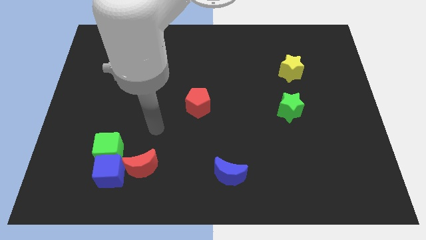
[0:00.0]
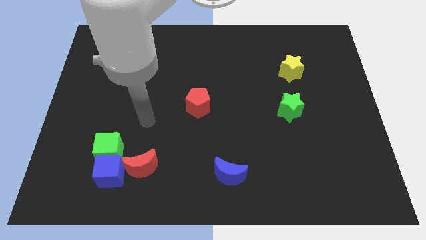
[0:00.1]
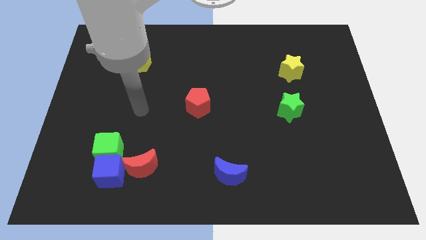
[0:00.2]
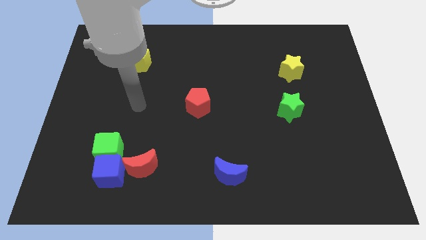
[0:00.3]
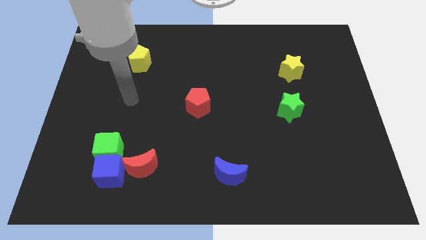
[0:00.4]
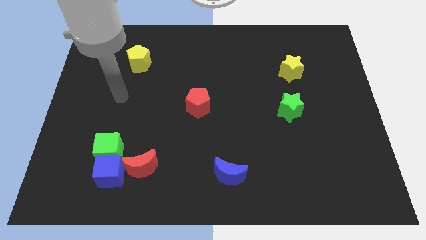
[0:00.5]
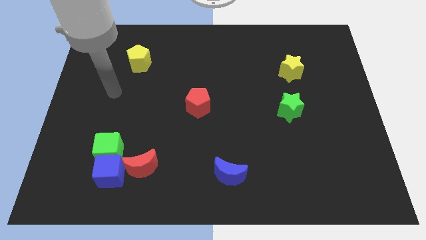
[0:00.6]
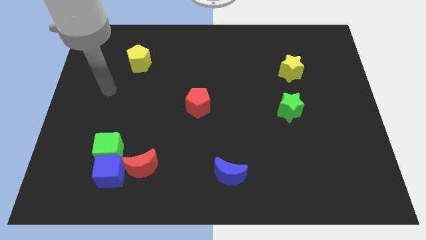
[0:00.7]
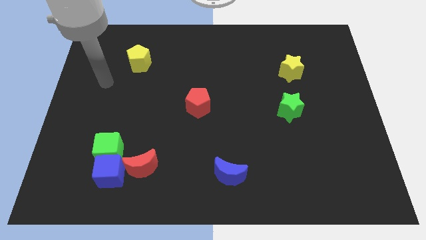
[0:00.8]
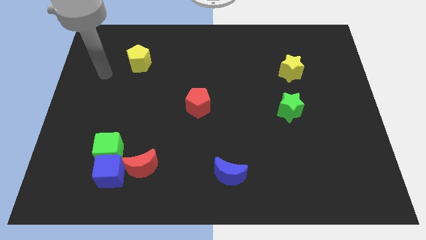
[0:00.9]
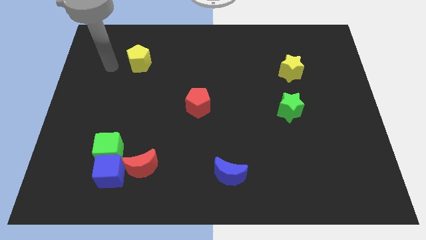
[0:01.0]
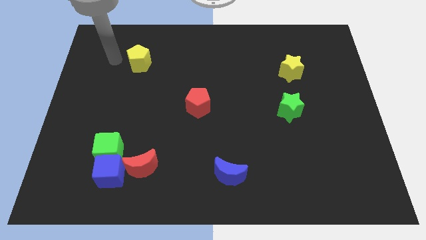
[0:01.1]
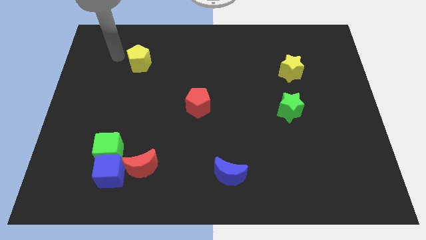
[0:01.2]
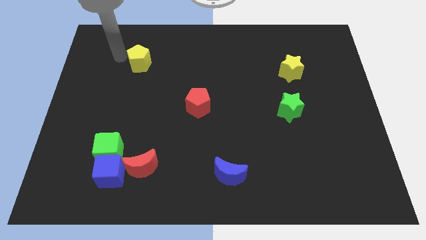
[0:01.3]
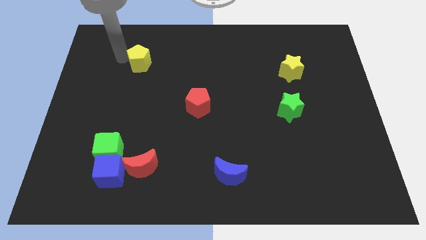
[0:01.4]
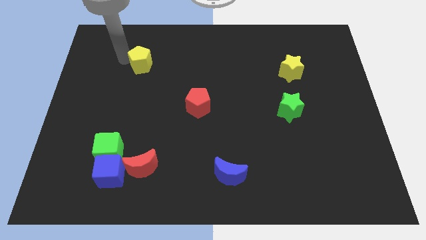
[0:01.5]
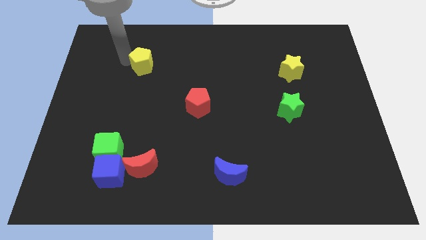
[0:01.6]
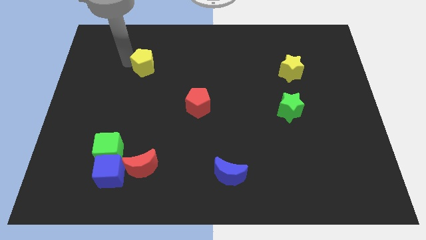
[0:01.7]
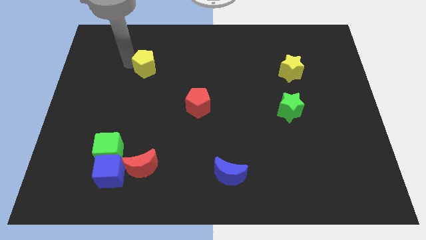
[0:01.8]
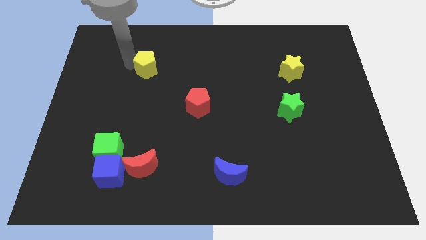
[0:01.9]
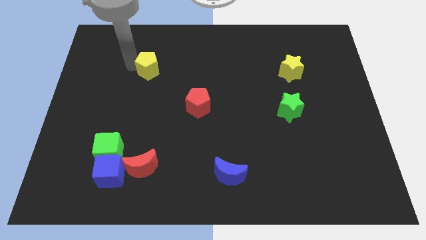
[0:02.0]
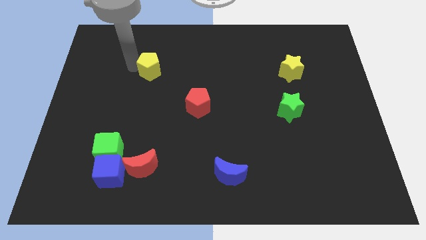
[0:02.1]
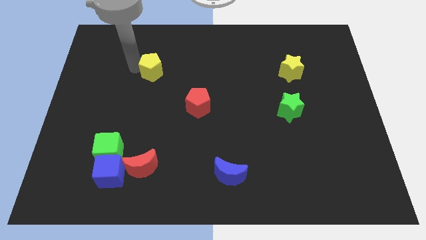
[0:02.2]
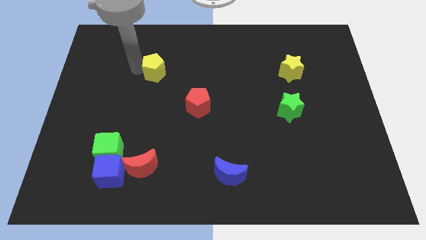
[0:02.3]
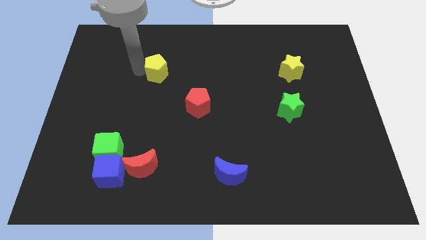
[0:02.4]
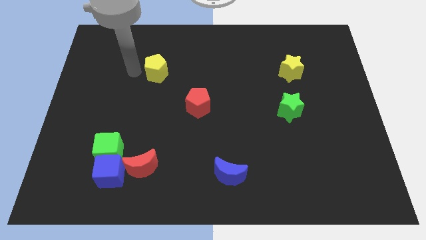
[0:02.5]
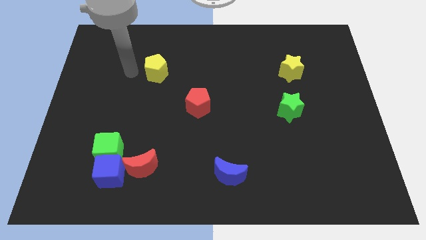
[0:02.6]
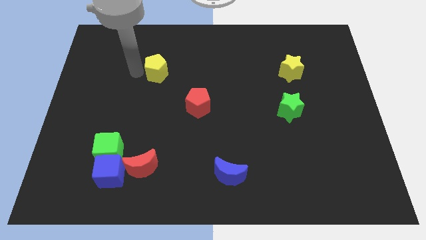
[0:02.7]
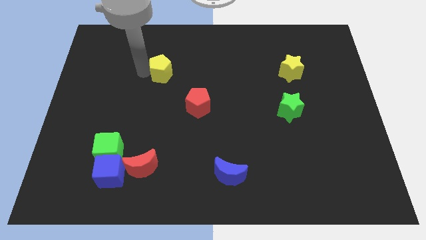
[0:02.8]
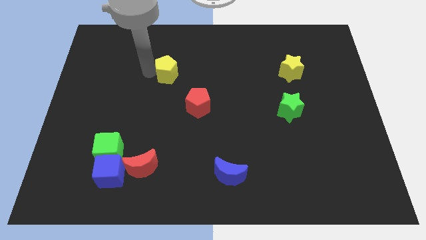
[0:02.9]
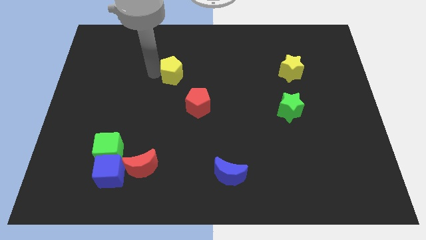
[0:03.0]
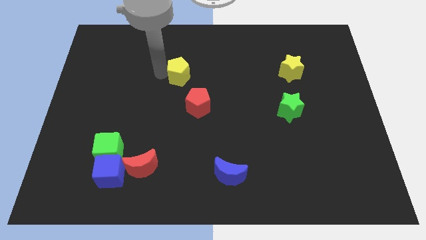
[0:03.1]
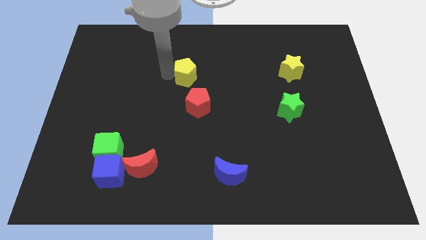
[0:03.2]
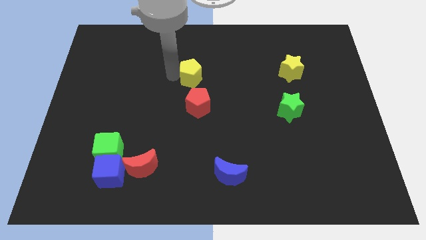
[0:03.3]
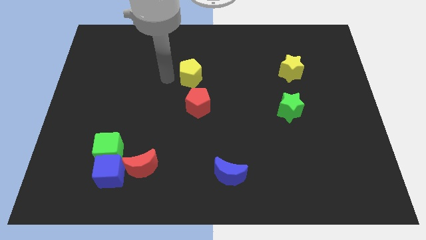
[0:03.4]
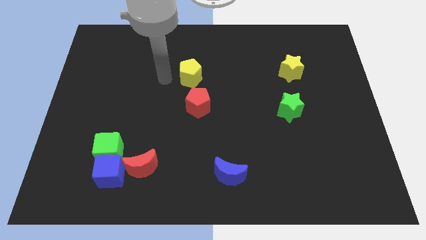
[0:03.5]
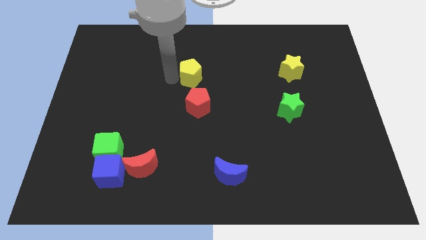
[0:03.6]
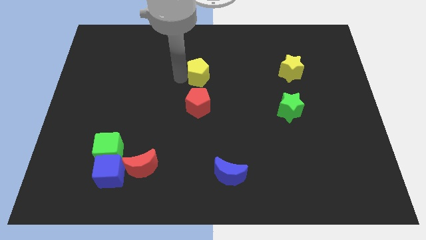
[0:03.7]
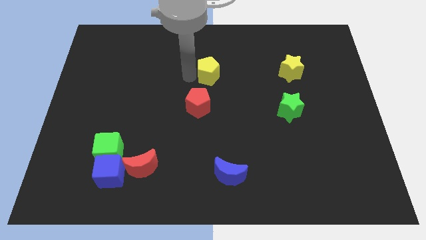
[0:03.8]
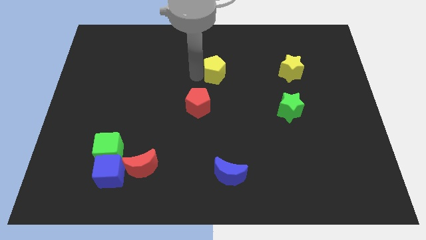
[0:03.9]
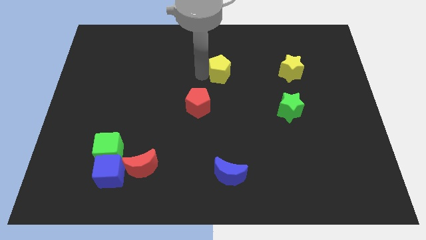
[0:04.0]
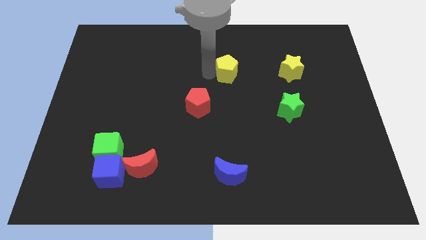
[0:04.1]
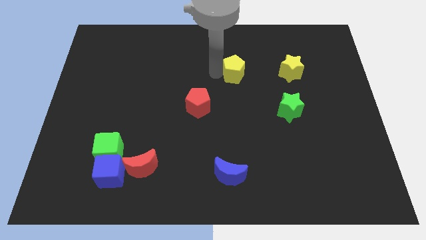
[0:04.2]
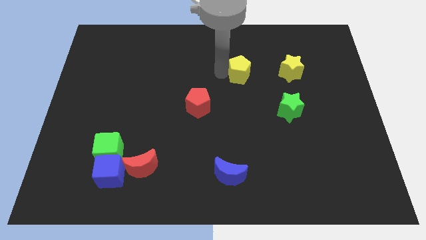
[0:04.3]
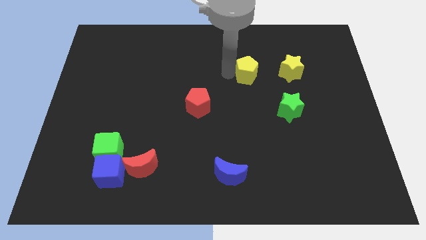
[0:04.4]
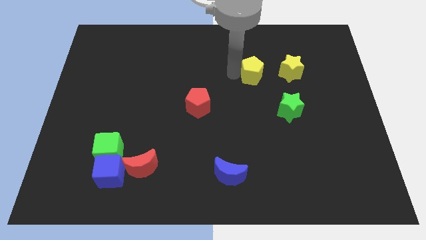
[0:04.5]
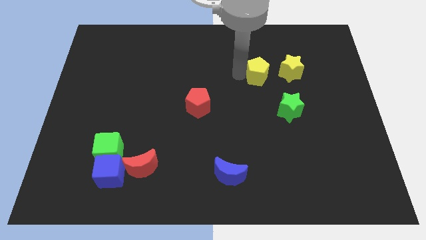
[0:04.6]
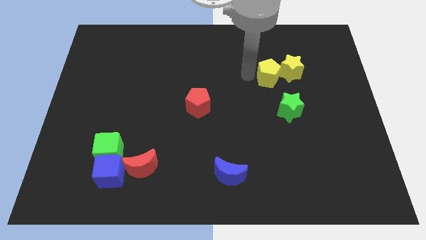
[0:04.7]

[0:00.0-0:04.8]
push the yellow pentagon next to the yellow star

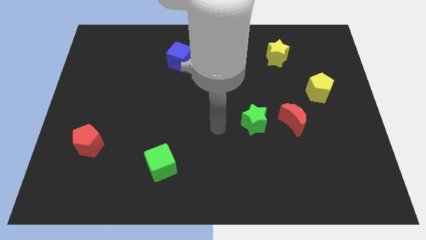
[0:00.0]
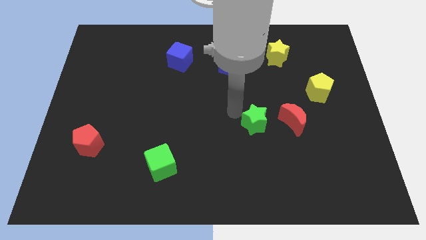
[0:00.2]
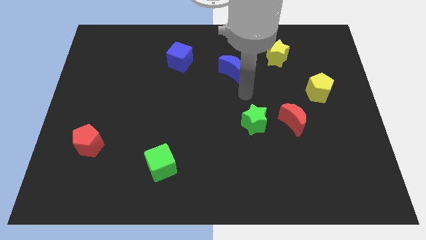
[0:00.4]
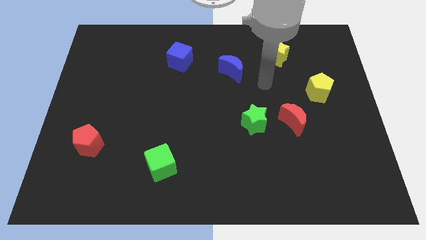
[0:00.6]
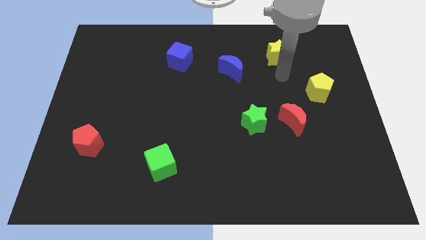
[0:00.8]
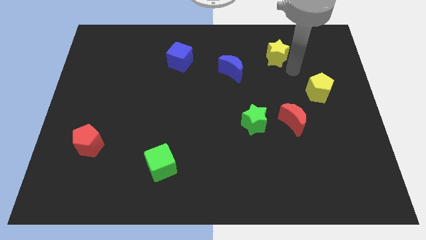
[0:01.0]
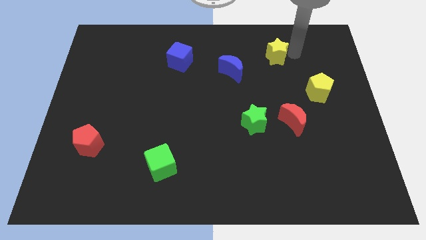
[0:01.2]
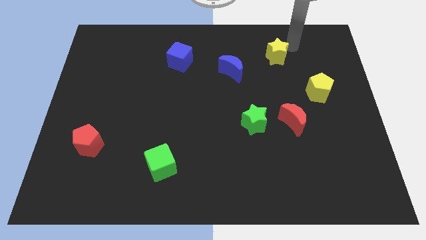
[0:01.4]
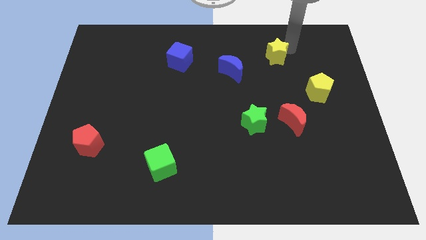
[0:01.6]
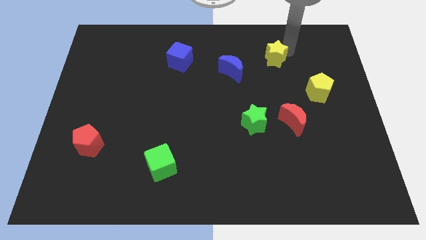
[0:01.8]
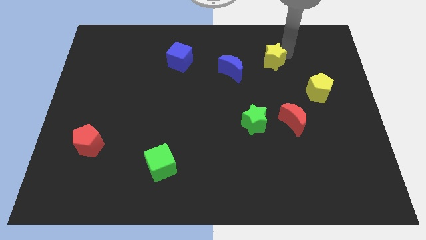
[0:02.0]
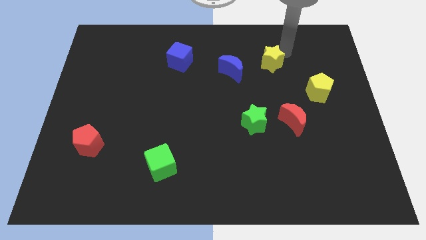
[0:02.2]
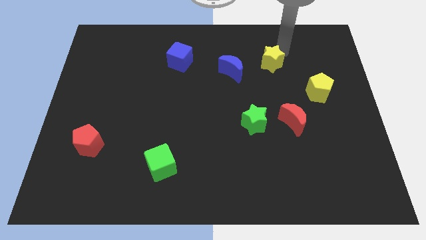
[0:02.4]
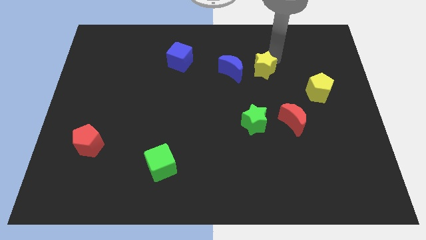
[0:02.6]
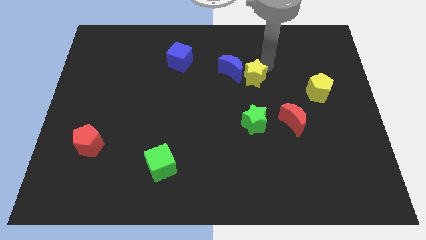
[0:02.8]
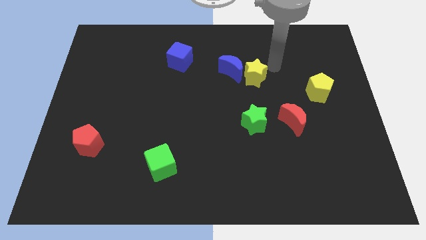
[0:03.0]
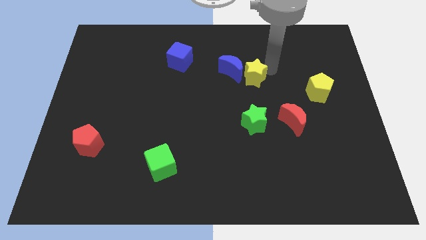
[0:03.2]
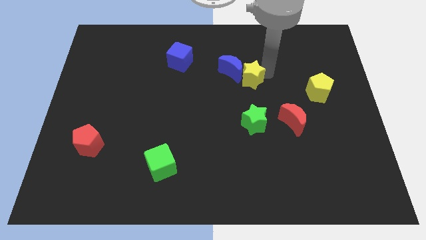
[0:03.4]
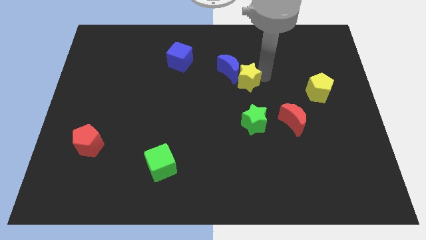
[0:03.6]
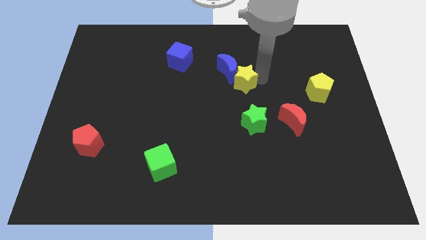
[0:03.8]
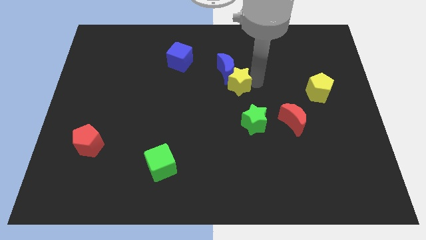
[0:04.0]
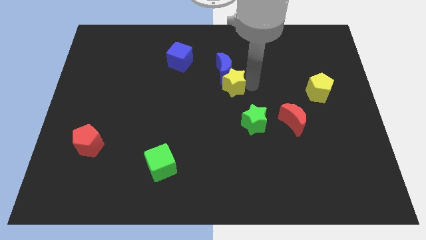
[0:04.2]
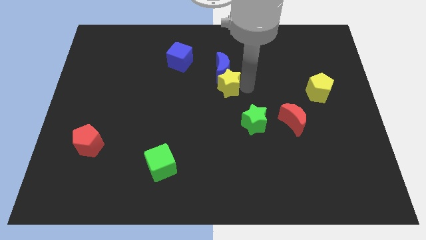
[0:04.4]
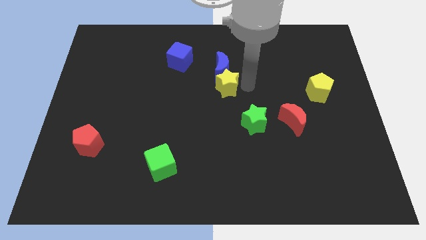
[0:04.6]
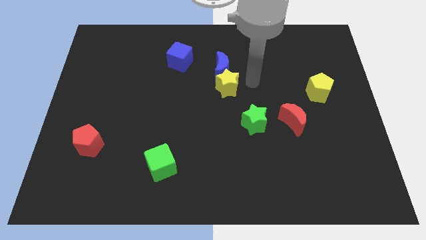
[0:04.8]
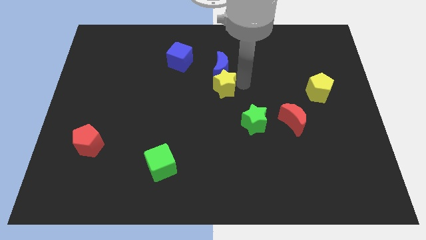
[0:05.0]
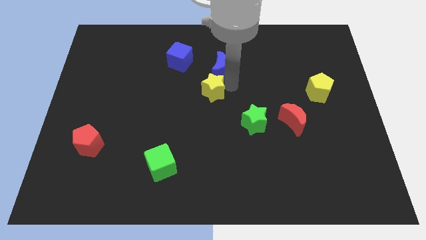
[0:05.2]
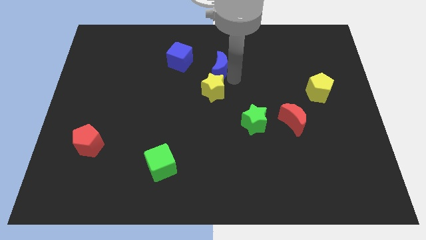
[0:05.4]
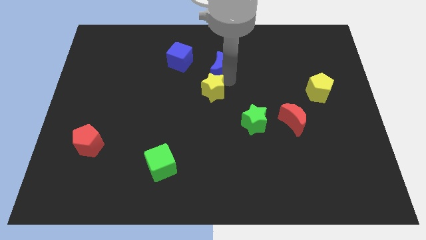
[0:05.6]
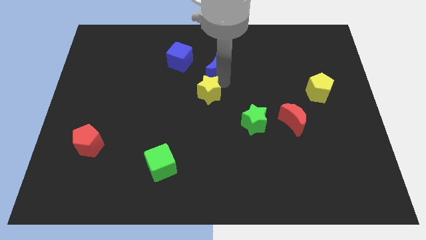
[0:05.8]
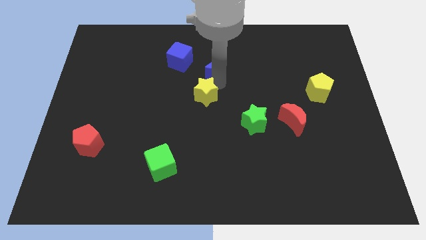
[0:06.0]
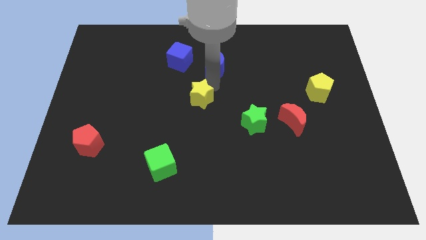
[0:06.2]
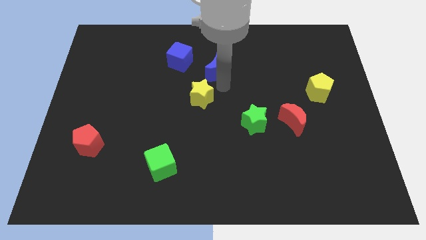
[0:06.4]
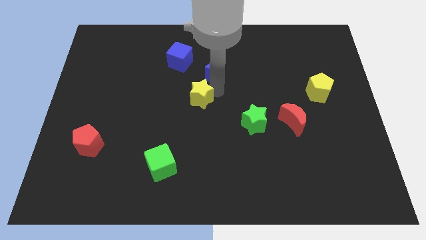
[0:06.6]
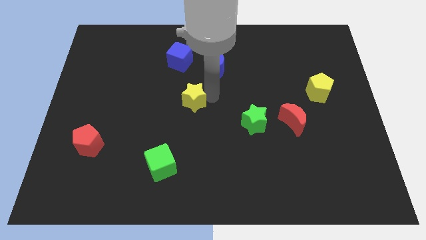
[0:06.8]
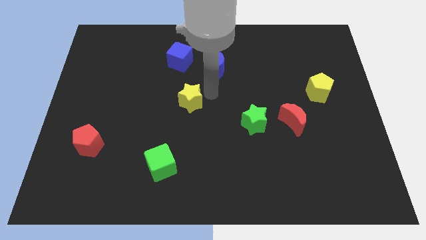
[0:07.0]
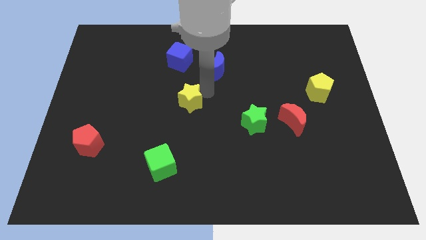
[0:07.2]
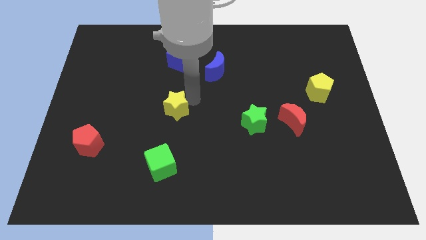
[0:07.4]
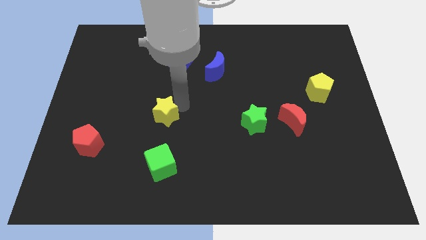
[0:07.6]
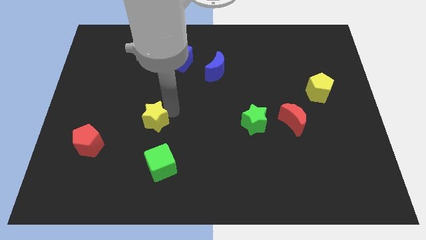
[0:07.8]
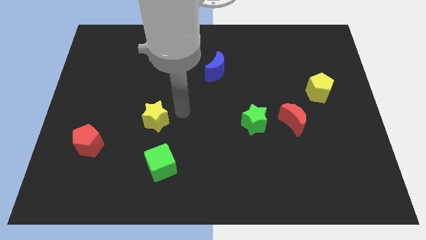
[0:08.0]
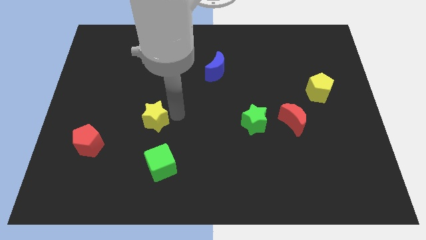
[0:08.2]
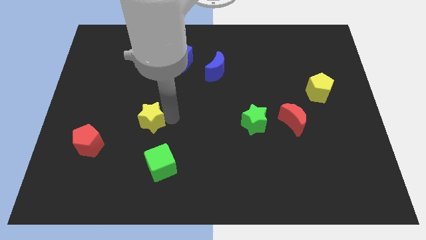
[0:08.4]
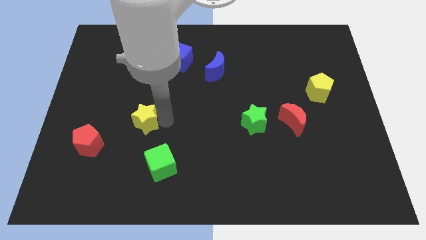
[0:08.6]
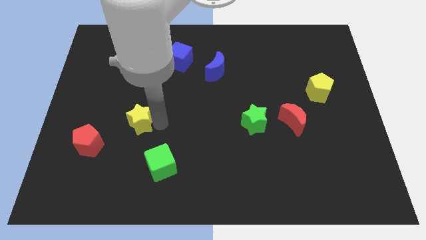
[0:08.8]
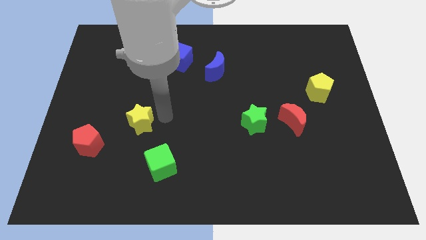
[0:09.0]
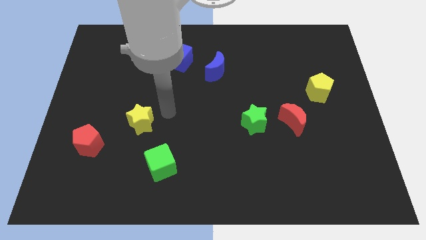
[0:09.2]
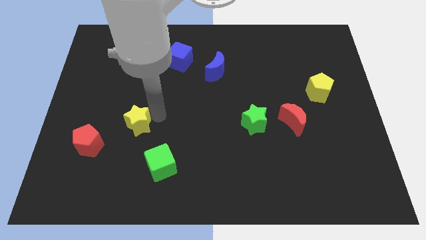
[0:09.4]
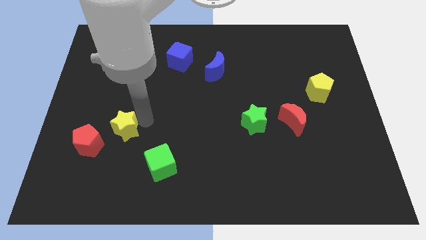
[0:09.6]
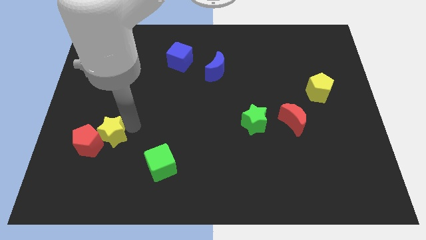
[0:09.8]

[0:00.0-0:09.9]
put the yellow star to the red pentagon
